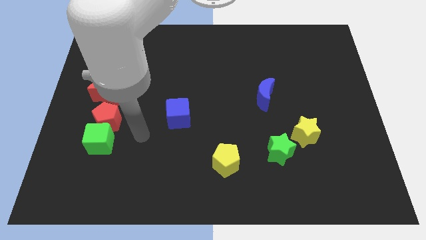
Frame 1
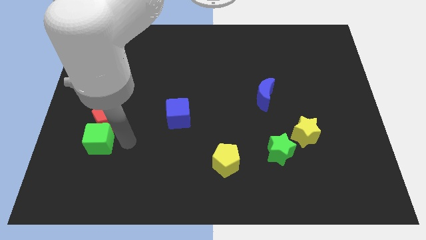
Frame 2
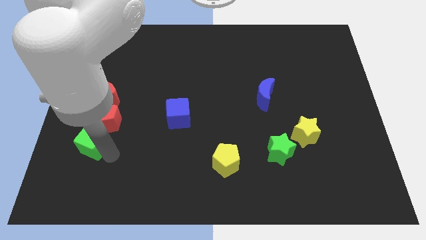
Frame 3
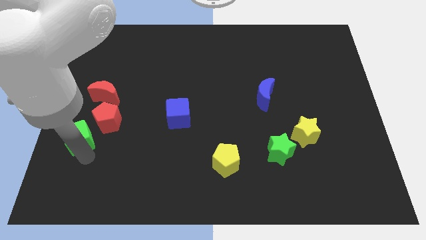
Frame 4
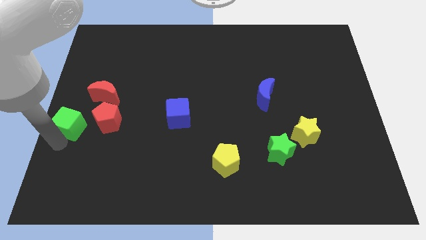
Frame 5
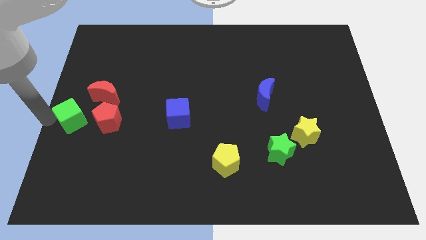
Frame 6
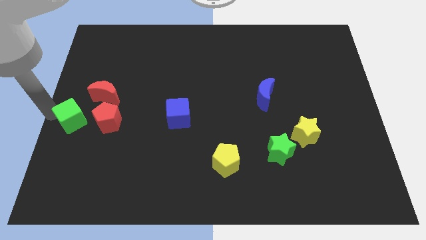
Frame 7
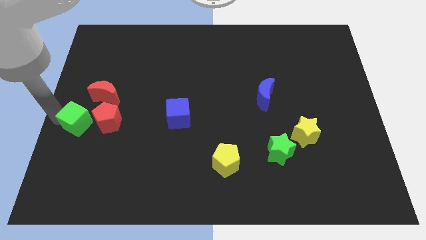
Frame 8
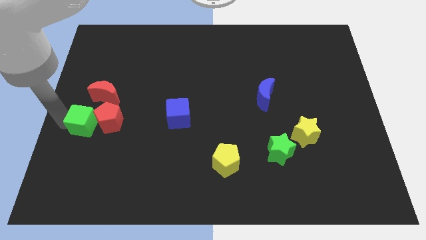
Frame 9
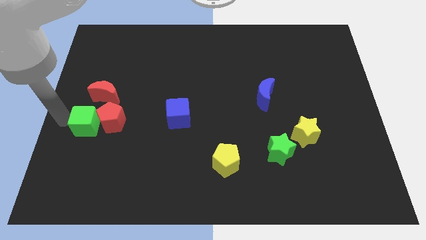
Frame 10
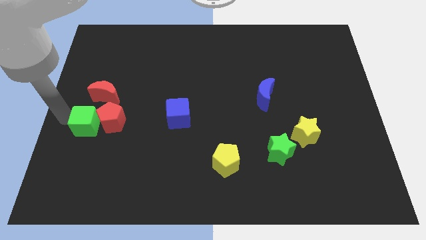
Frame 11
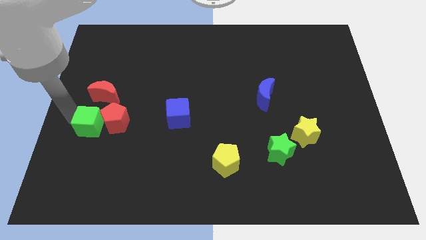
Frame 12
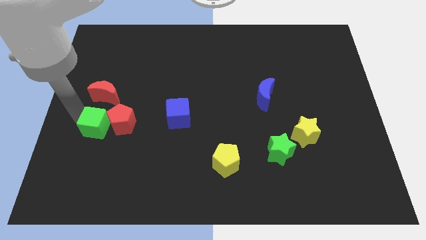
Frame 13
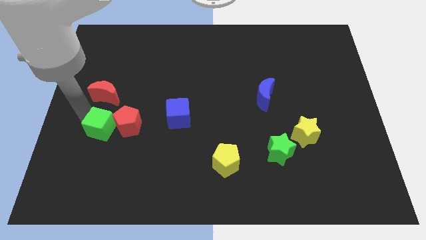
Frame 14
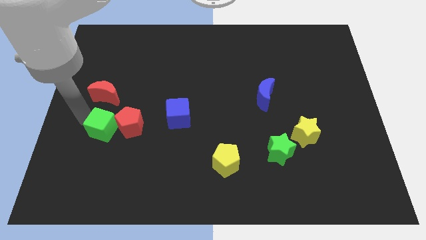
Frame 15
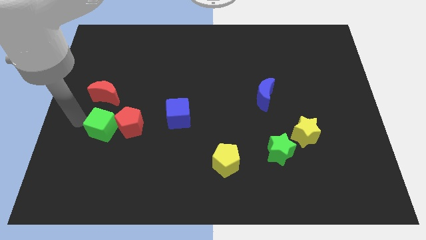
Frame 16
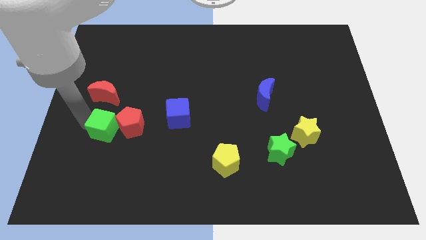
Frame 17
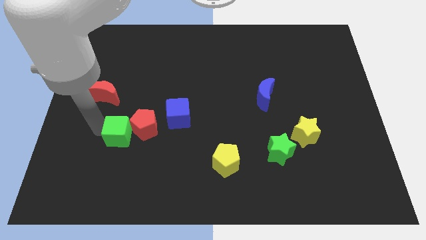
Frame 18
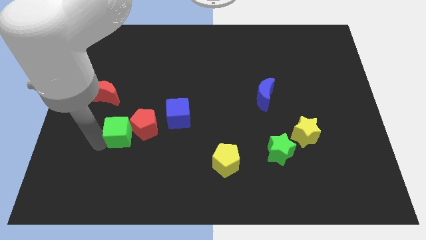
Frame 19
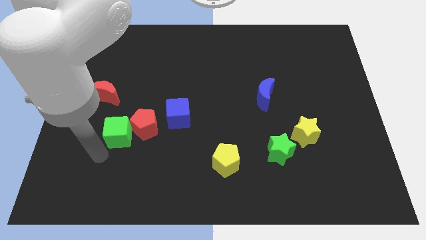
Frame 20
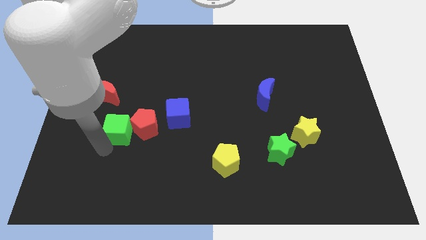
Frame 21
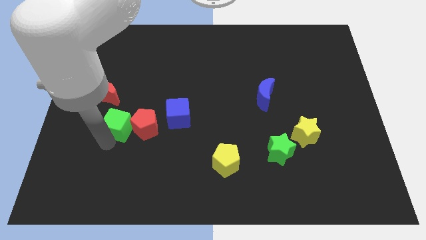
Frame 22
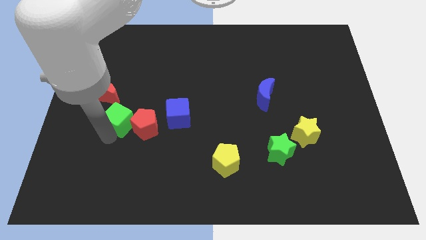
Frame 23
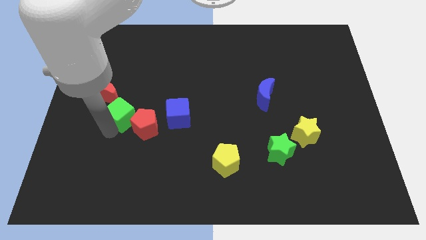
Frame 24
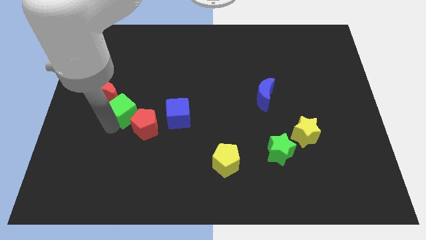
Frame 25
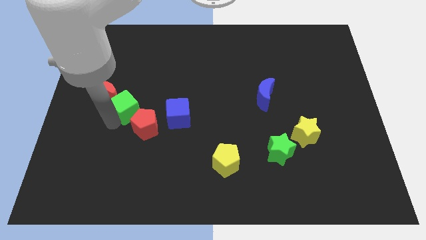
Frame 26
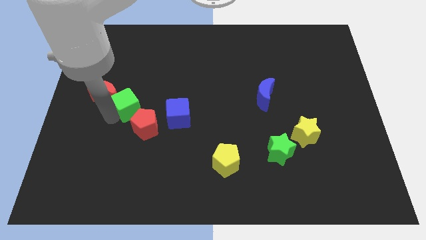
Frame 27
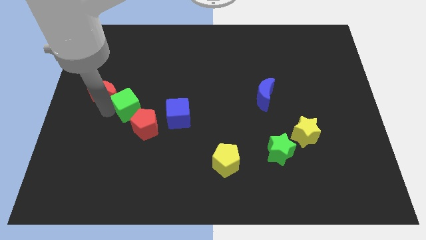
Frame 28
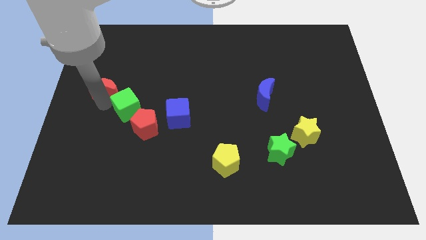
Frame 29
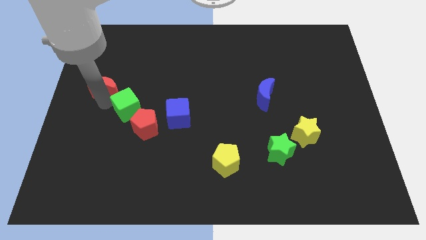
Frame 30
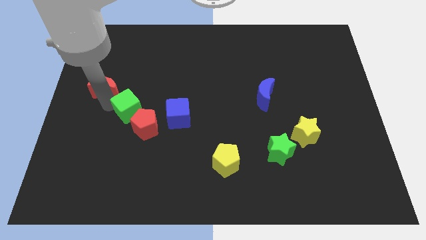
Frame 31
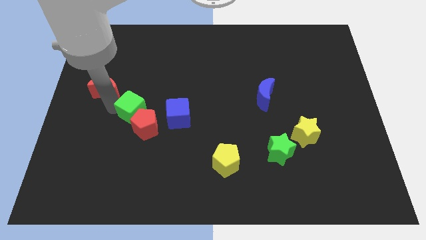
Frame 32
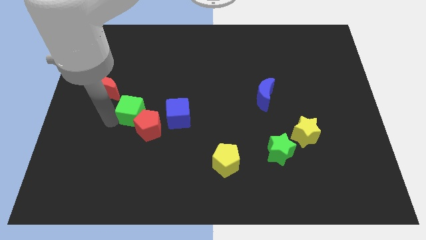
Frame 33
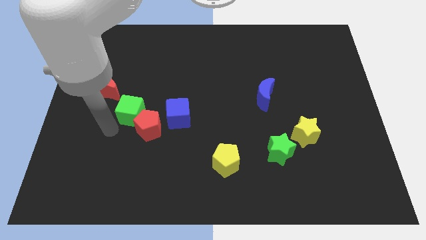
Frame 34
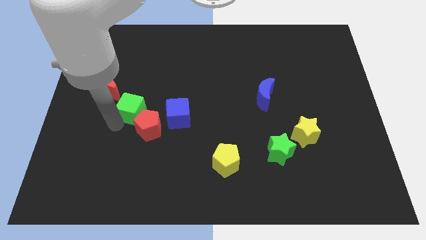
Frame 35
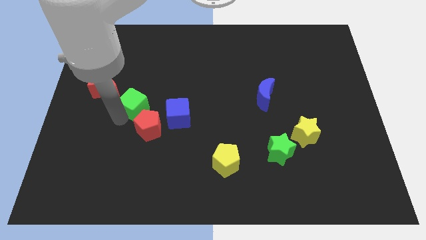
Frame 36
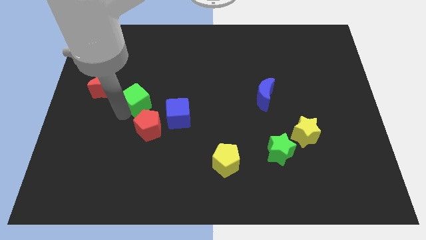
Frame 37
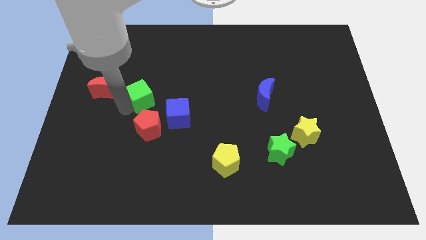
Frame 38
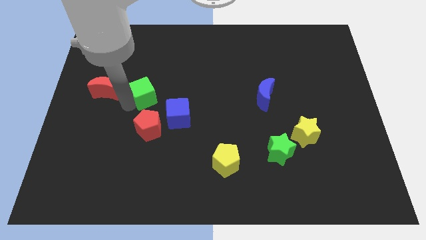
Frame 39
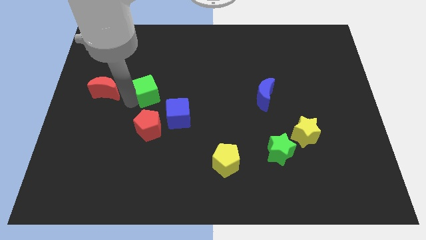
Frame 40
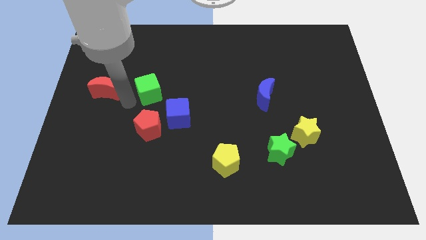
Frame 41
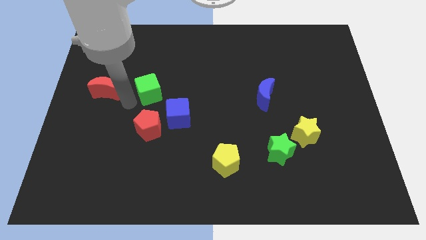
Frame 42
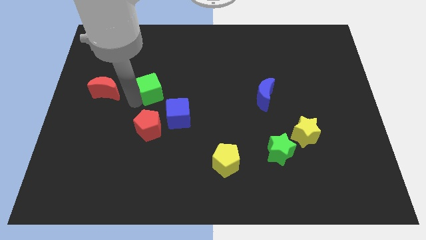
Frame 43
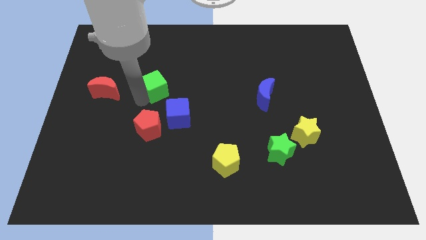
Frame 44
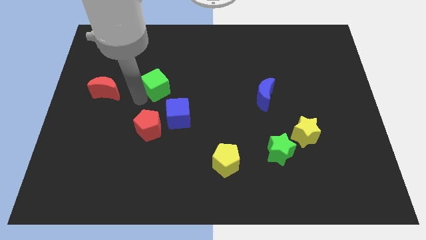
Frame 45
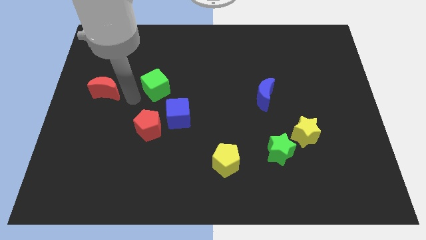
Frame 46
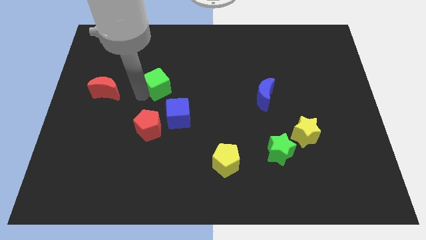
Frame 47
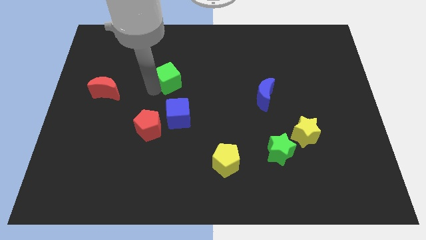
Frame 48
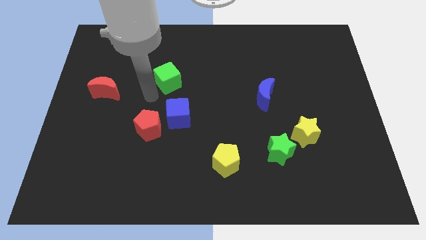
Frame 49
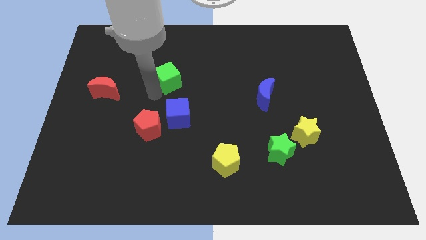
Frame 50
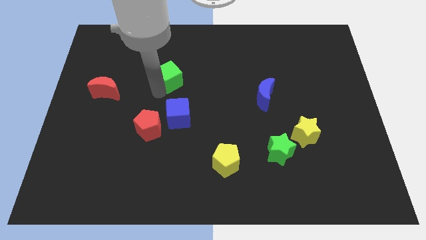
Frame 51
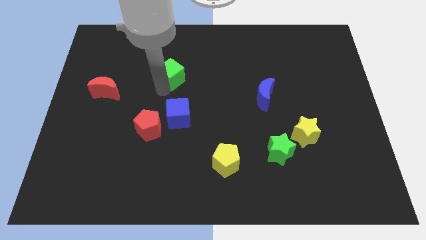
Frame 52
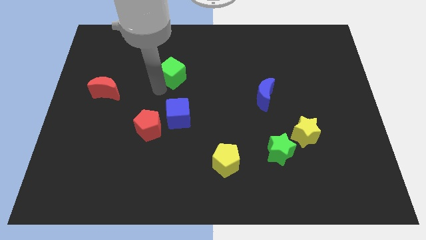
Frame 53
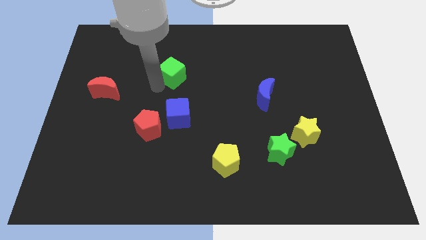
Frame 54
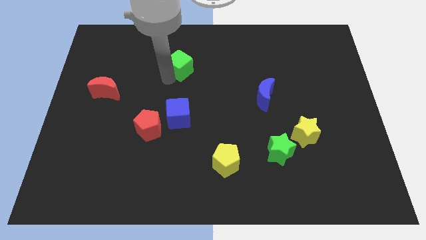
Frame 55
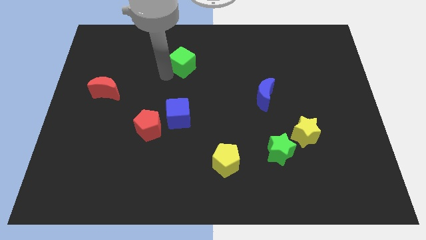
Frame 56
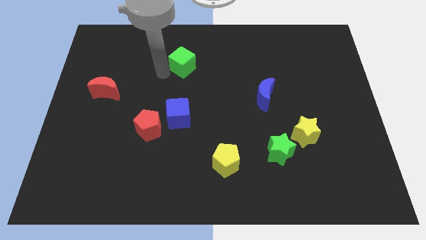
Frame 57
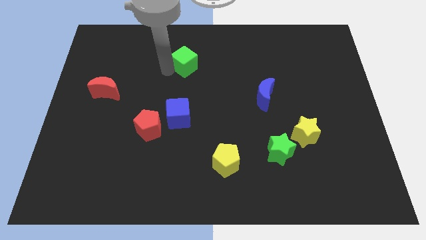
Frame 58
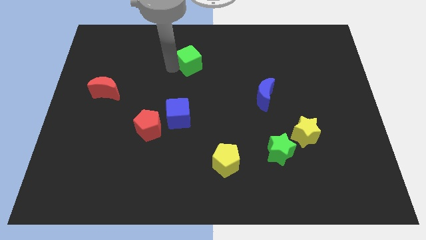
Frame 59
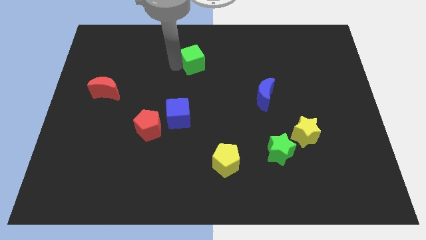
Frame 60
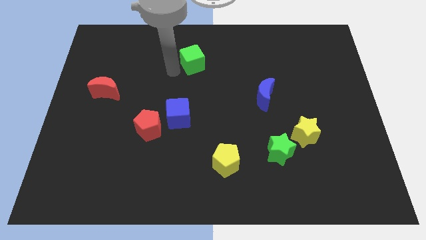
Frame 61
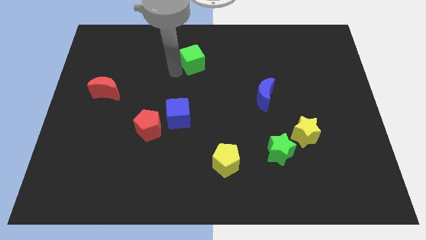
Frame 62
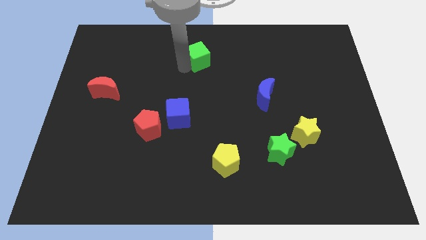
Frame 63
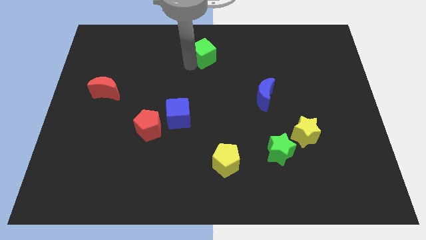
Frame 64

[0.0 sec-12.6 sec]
push the green cube to the top
